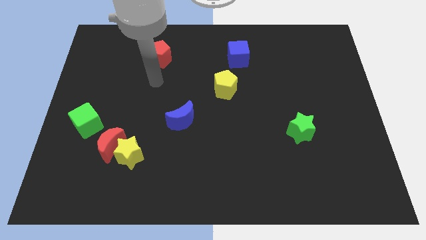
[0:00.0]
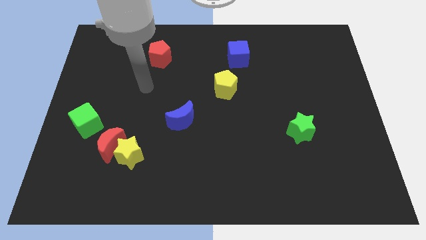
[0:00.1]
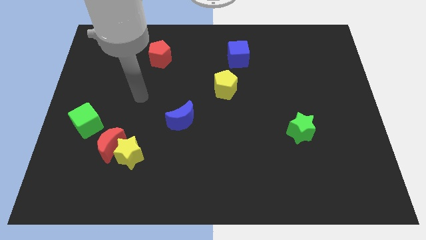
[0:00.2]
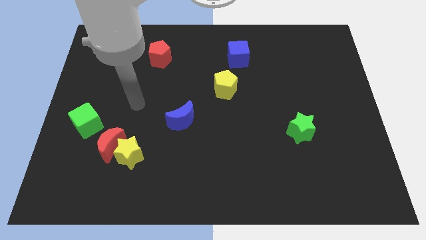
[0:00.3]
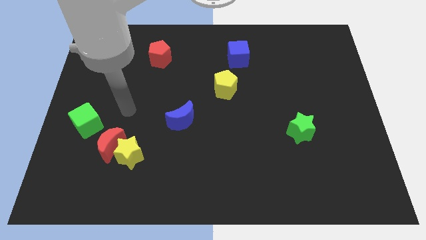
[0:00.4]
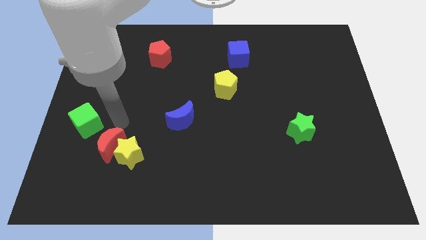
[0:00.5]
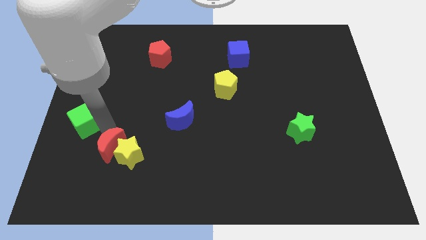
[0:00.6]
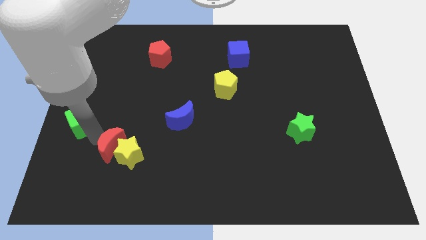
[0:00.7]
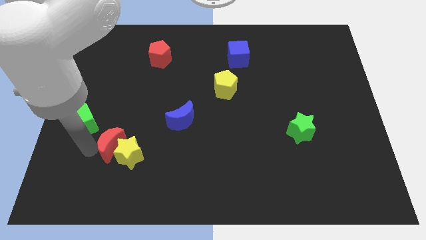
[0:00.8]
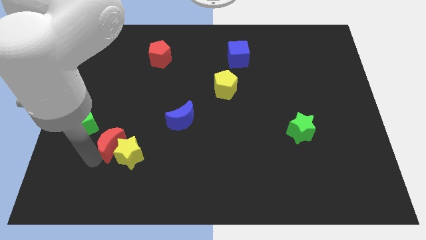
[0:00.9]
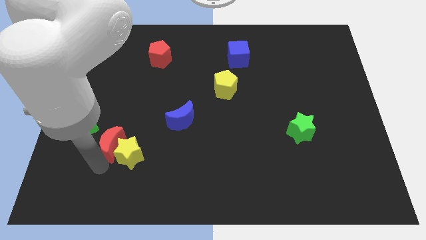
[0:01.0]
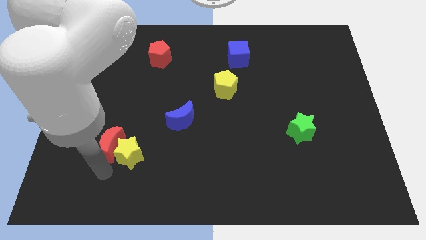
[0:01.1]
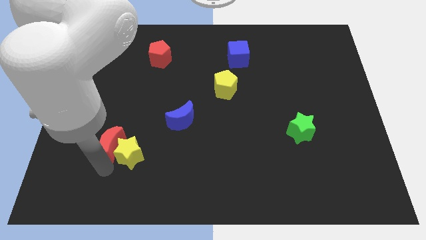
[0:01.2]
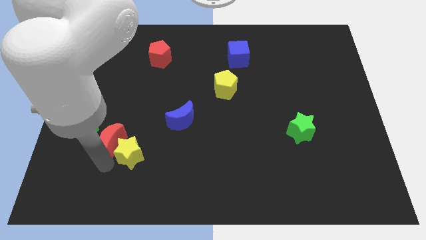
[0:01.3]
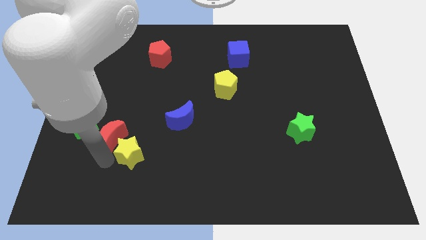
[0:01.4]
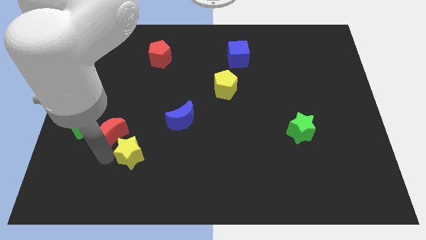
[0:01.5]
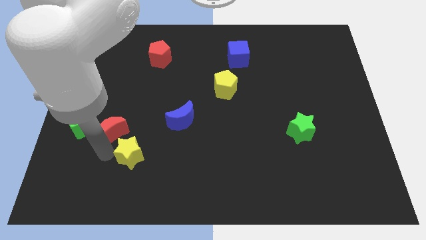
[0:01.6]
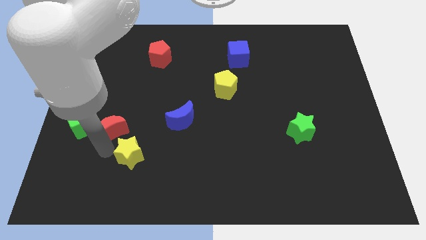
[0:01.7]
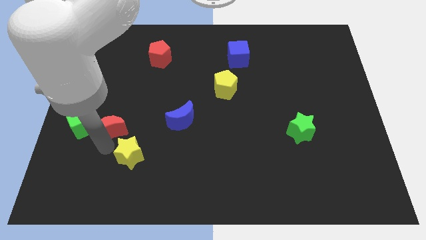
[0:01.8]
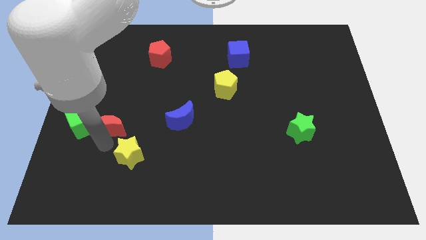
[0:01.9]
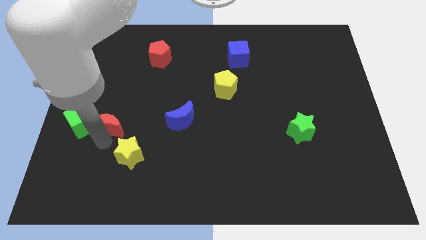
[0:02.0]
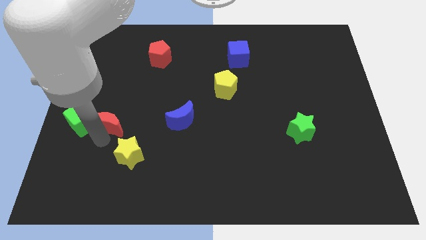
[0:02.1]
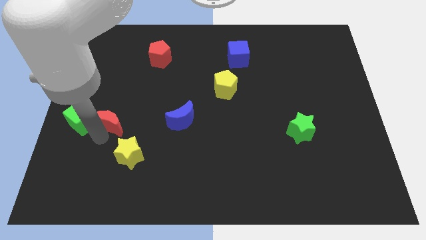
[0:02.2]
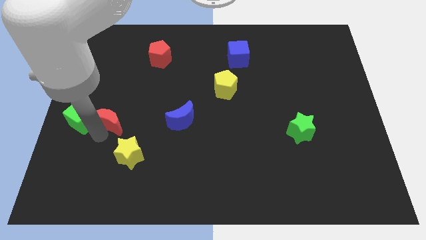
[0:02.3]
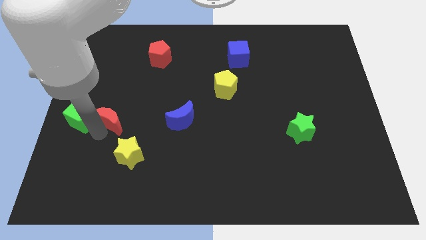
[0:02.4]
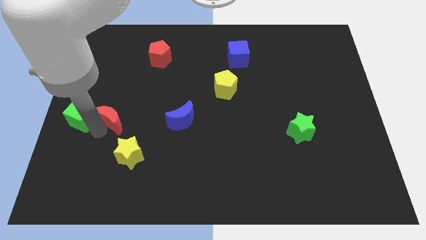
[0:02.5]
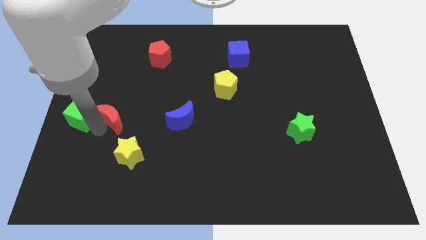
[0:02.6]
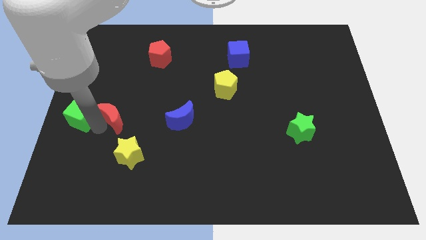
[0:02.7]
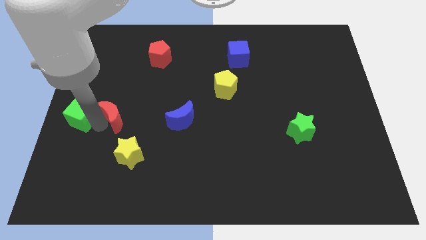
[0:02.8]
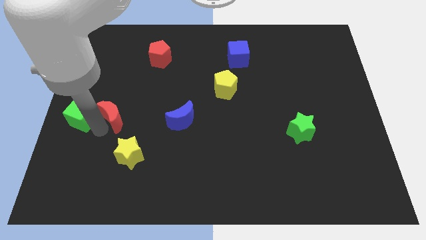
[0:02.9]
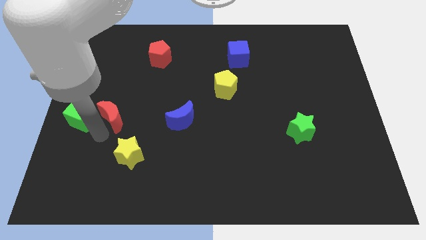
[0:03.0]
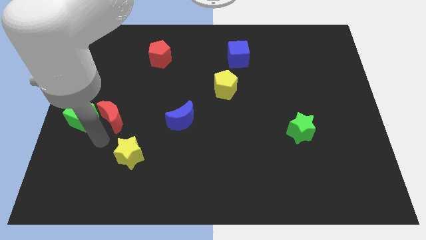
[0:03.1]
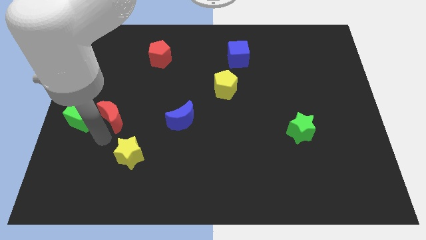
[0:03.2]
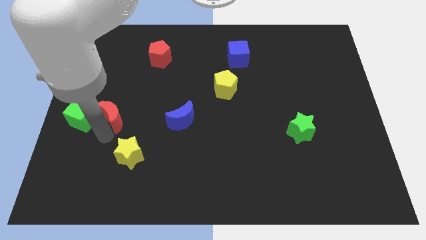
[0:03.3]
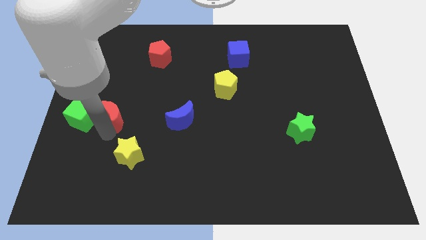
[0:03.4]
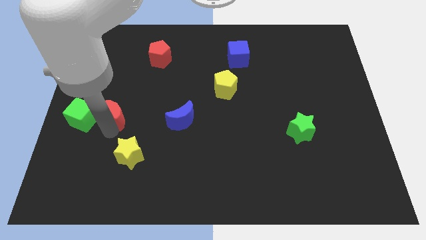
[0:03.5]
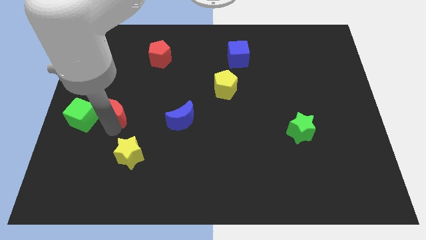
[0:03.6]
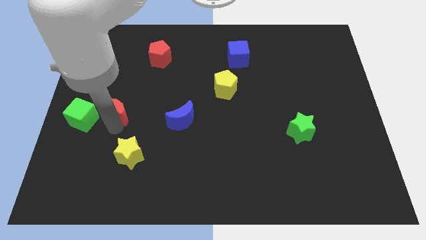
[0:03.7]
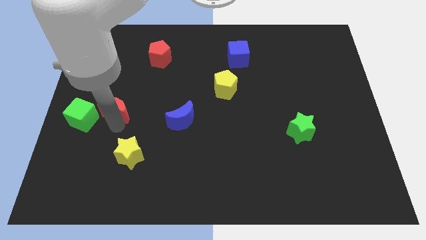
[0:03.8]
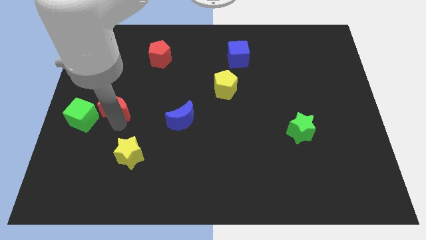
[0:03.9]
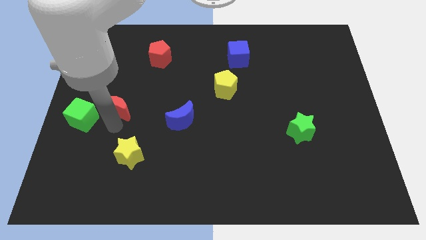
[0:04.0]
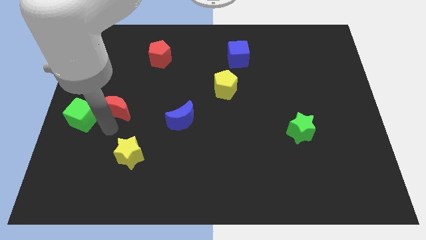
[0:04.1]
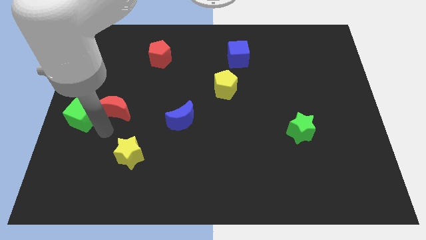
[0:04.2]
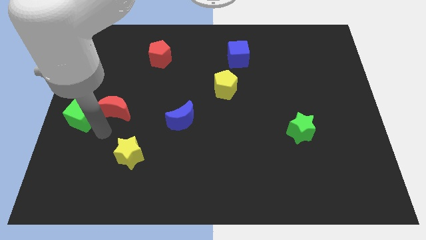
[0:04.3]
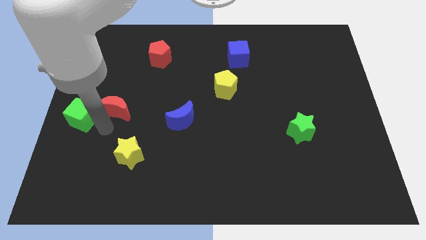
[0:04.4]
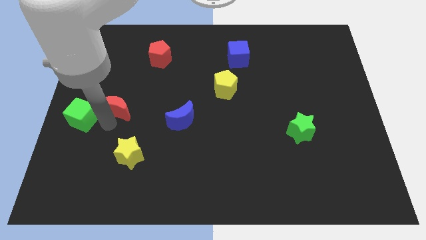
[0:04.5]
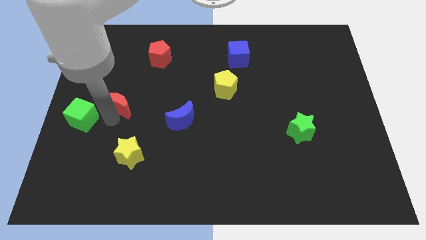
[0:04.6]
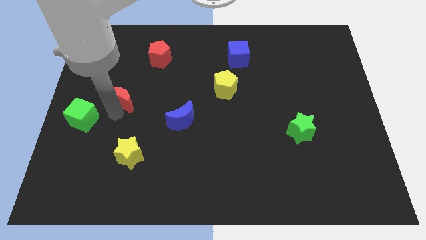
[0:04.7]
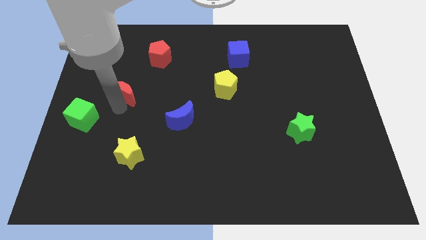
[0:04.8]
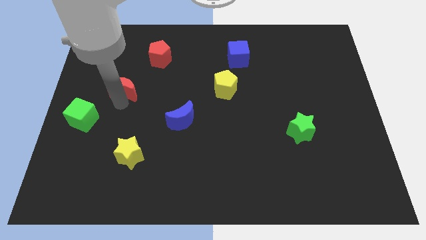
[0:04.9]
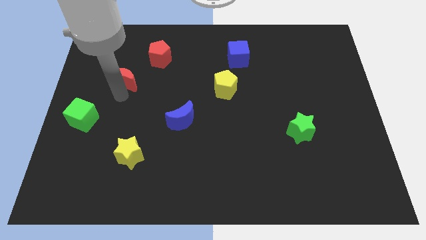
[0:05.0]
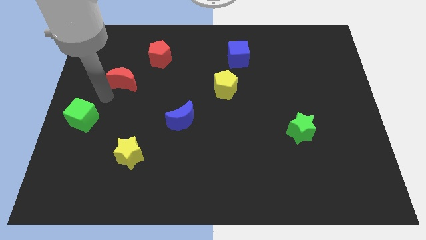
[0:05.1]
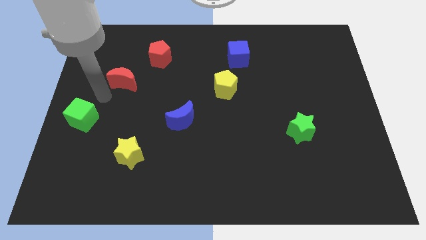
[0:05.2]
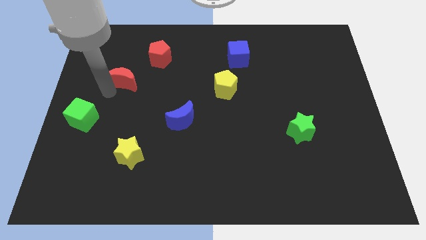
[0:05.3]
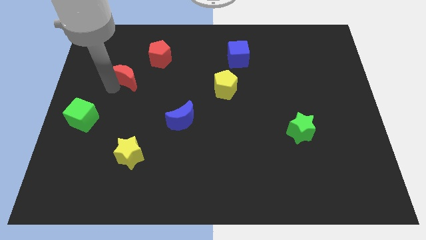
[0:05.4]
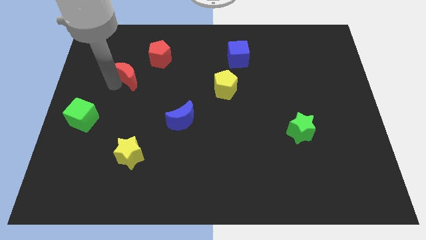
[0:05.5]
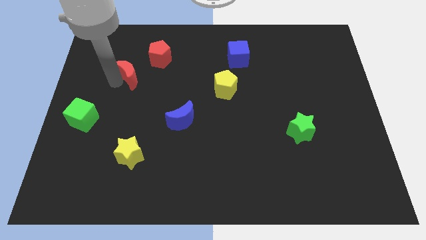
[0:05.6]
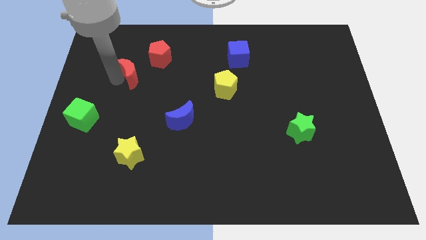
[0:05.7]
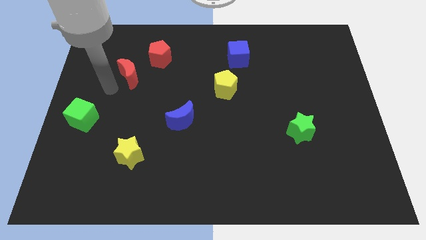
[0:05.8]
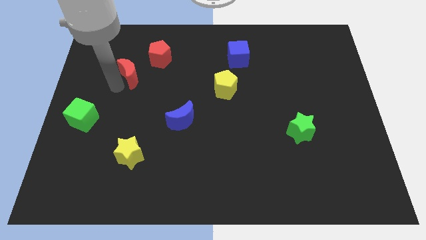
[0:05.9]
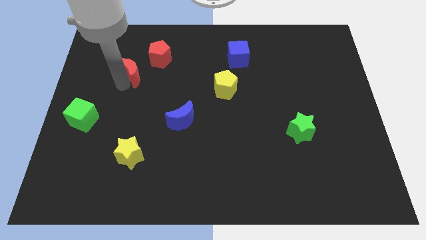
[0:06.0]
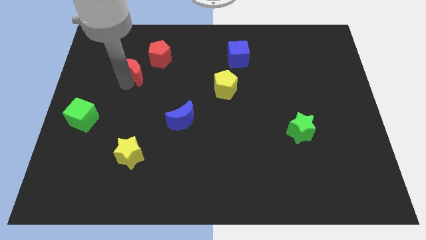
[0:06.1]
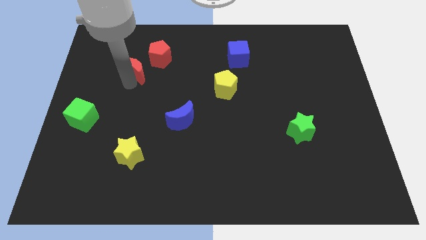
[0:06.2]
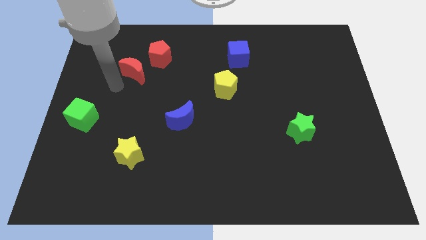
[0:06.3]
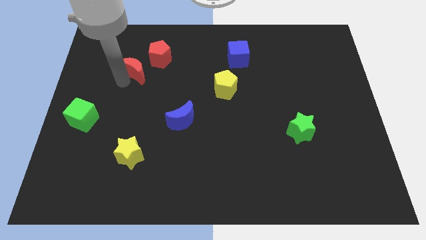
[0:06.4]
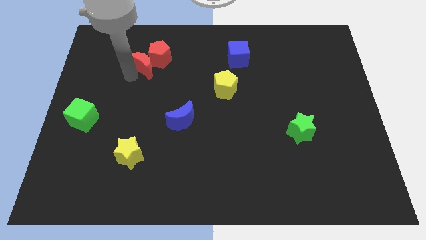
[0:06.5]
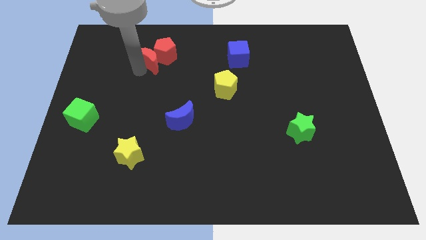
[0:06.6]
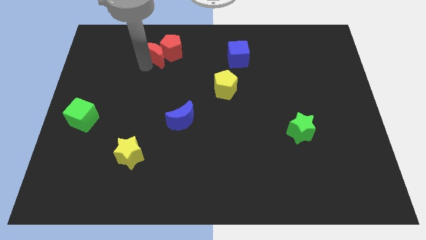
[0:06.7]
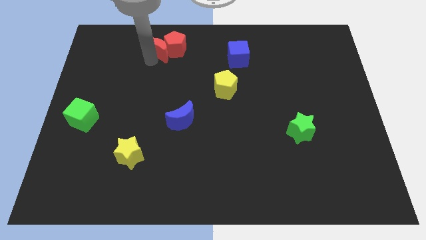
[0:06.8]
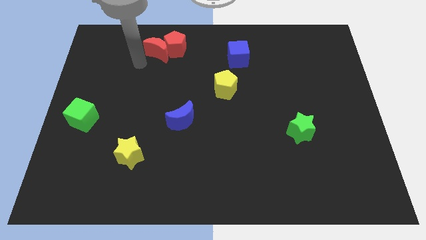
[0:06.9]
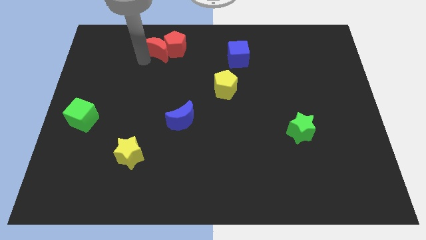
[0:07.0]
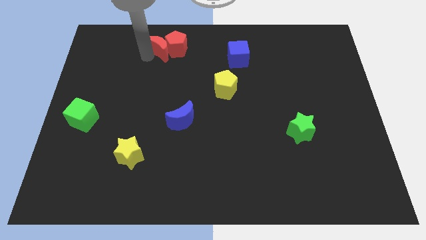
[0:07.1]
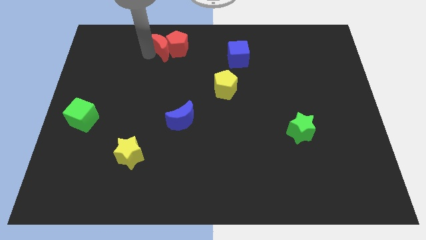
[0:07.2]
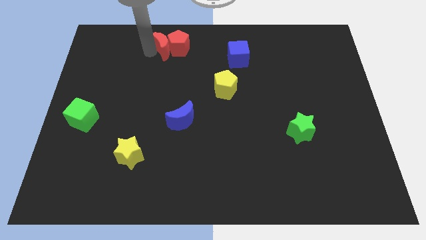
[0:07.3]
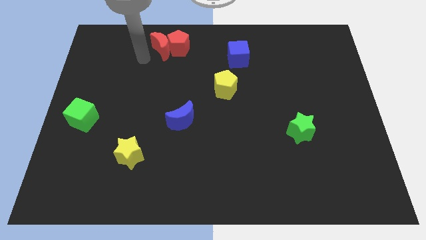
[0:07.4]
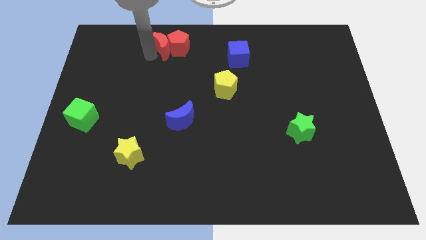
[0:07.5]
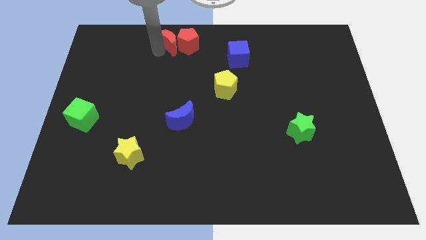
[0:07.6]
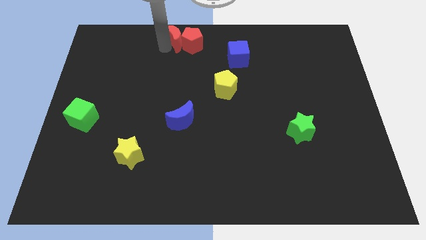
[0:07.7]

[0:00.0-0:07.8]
put the red moon to the towards your base
